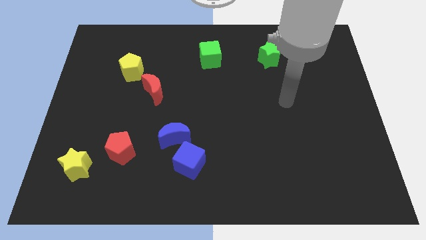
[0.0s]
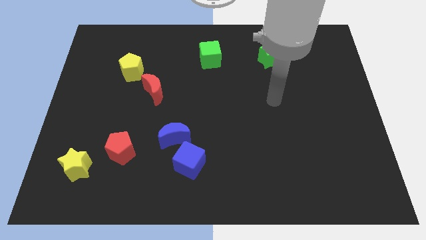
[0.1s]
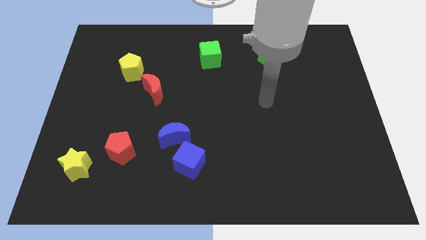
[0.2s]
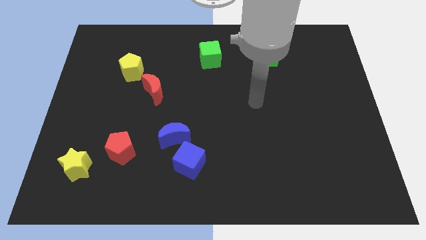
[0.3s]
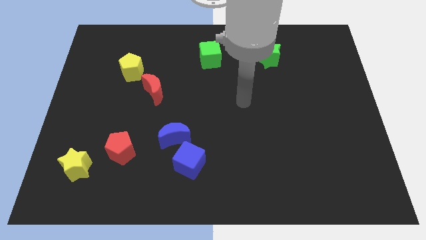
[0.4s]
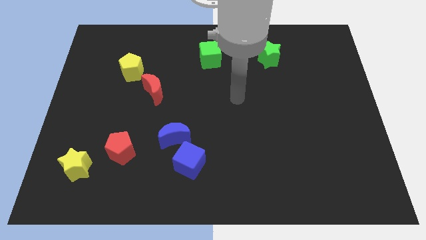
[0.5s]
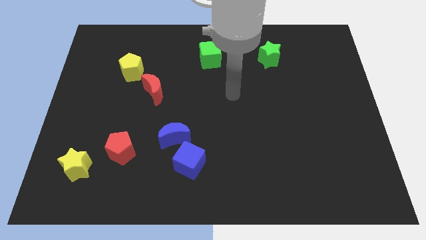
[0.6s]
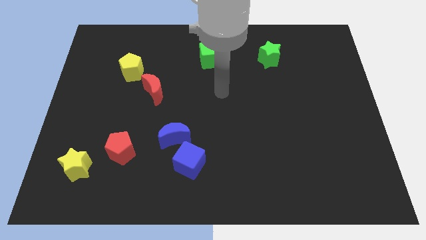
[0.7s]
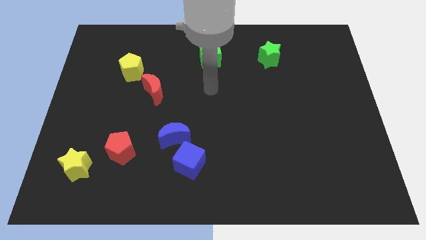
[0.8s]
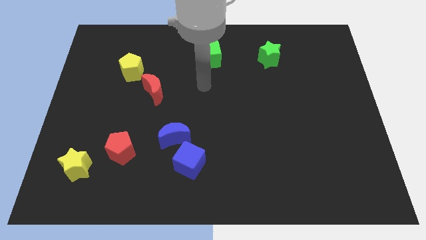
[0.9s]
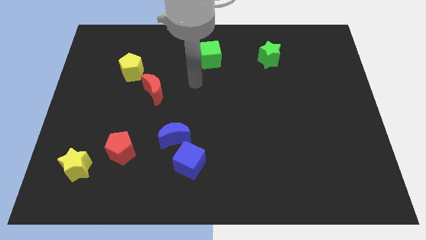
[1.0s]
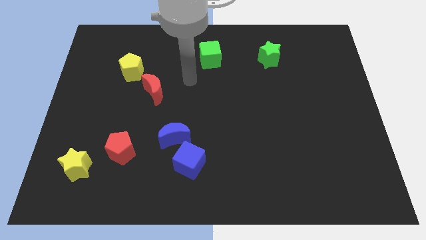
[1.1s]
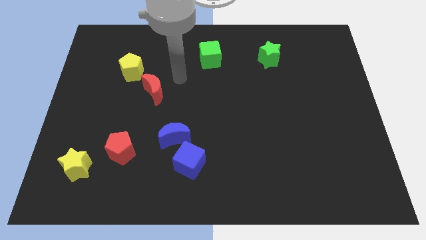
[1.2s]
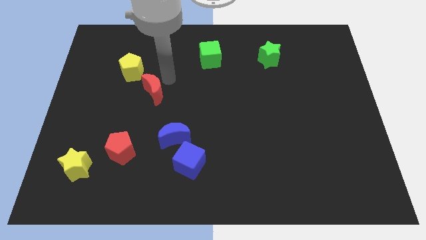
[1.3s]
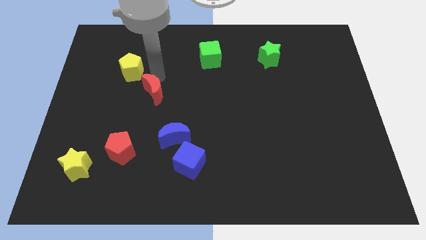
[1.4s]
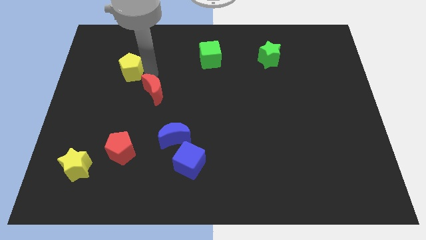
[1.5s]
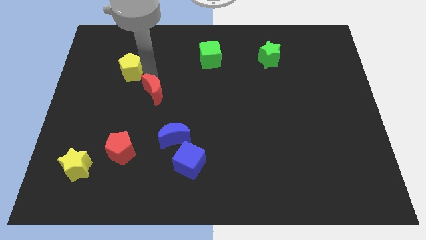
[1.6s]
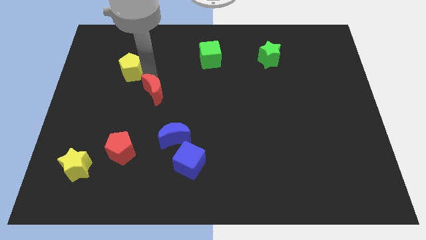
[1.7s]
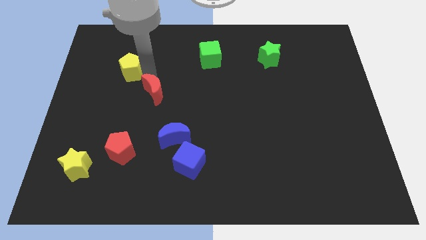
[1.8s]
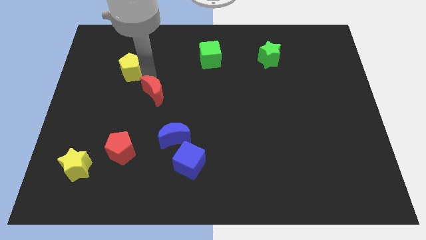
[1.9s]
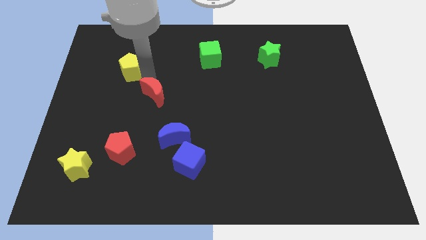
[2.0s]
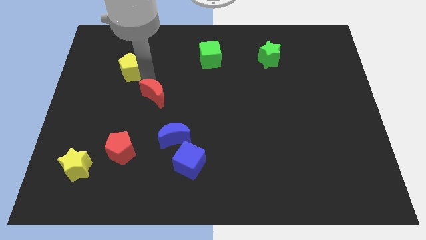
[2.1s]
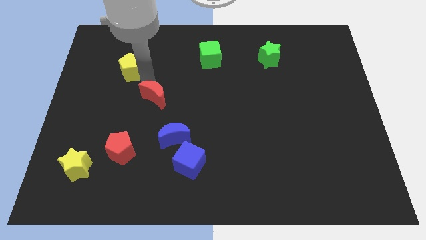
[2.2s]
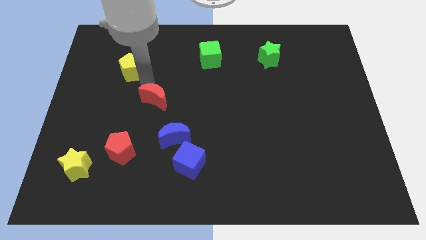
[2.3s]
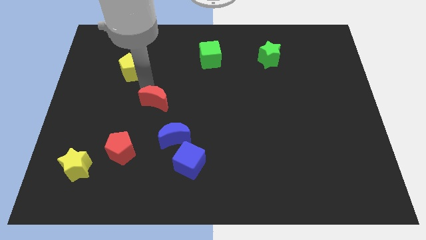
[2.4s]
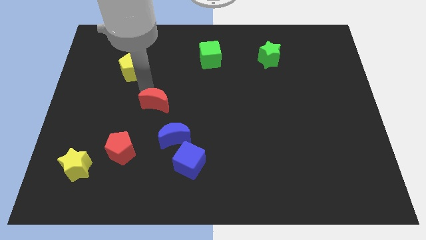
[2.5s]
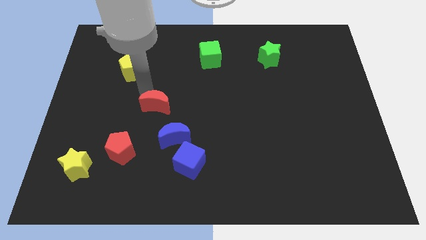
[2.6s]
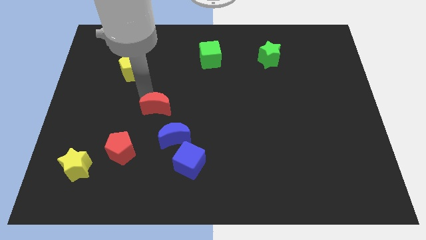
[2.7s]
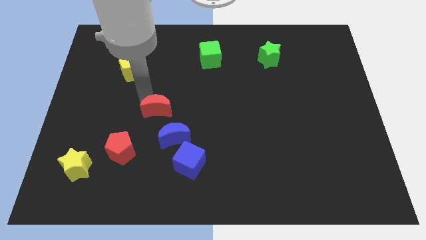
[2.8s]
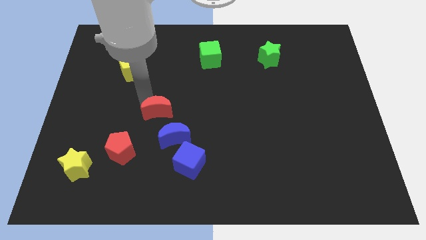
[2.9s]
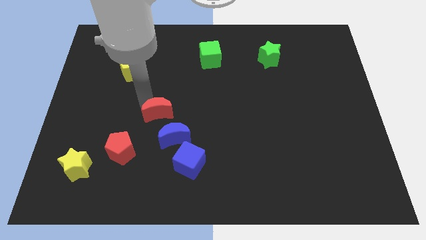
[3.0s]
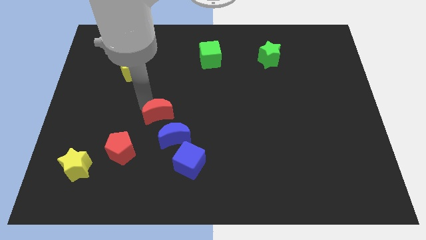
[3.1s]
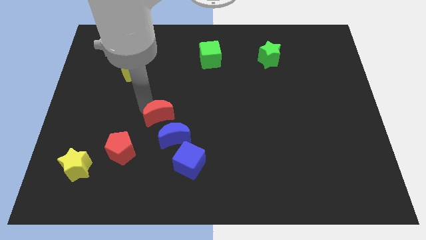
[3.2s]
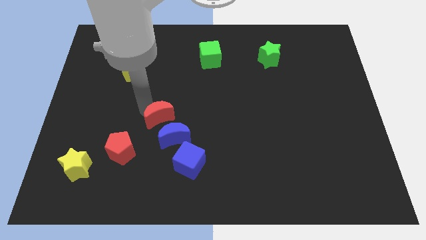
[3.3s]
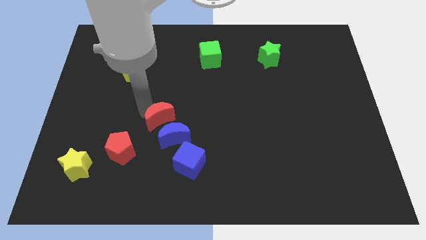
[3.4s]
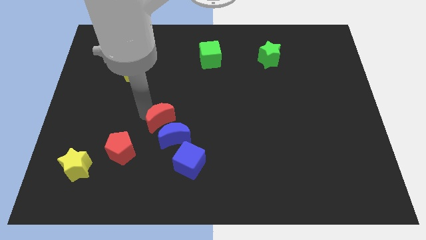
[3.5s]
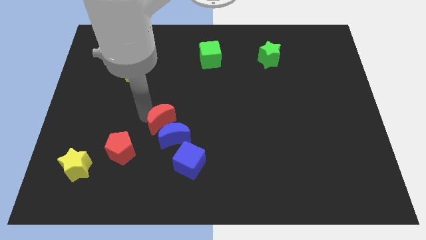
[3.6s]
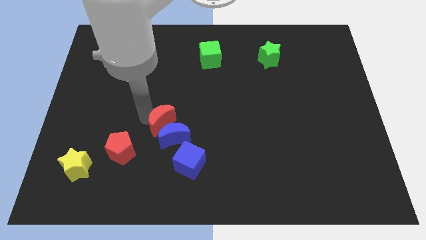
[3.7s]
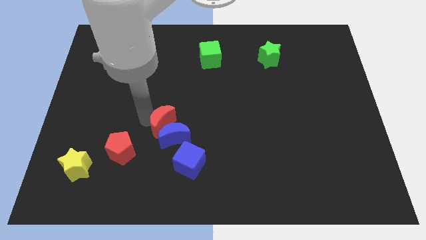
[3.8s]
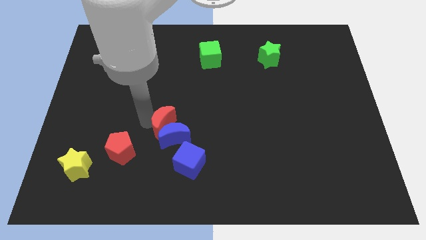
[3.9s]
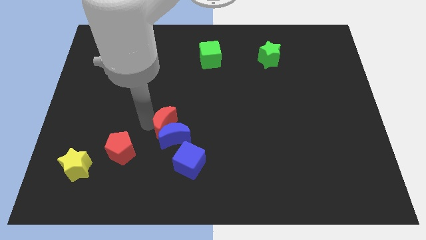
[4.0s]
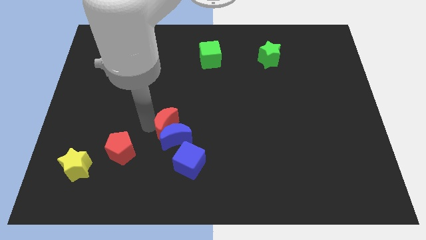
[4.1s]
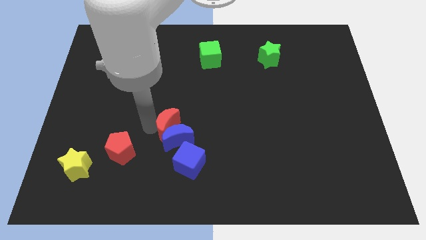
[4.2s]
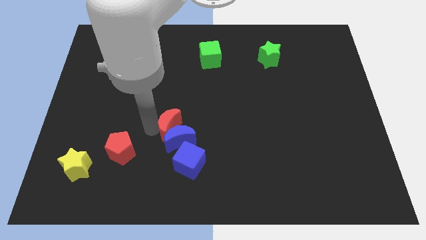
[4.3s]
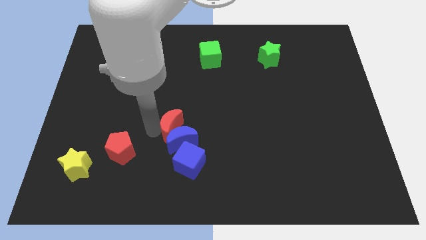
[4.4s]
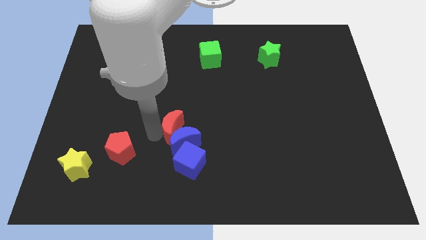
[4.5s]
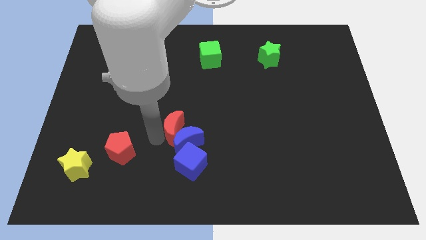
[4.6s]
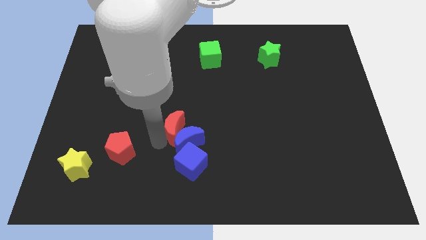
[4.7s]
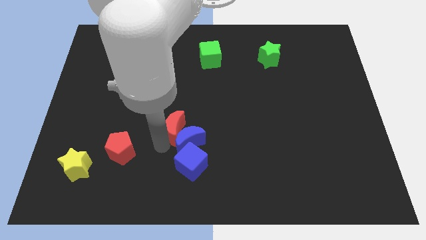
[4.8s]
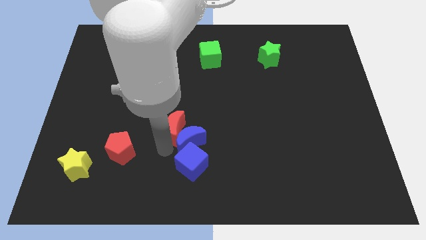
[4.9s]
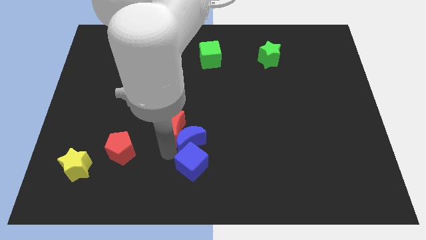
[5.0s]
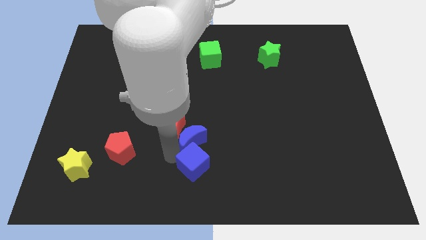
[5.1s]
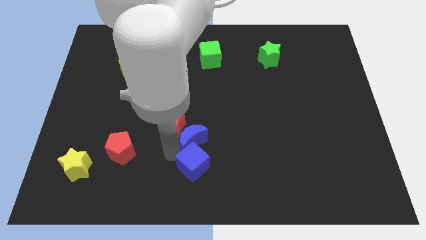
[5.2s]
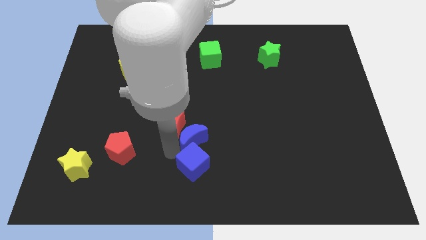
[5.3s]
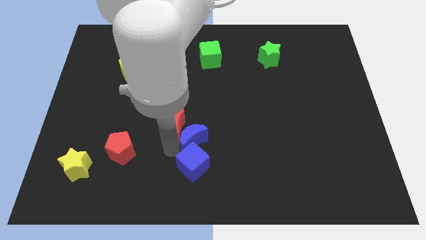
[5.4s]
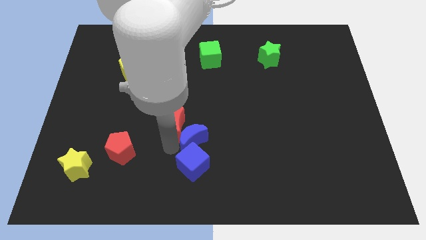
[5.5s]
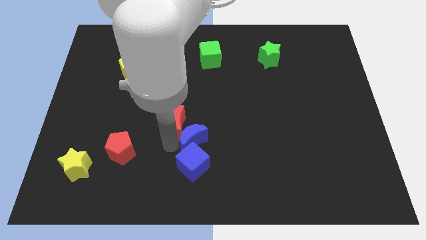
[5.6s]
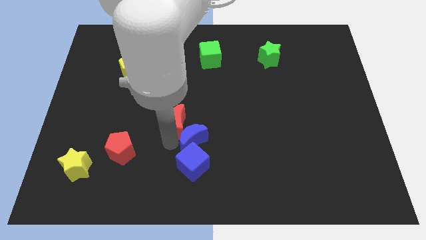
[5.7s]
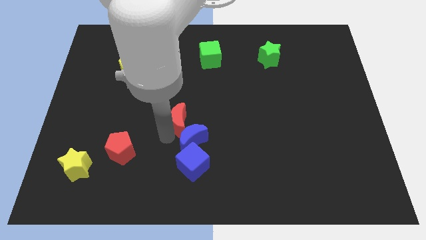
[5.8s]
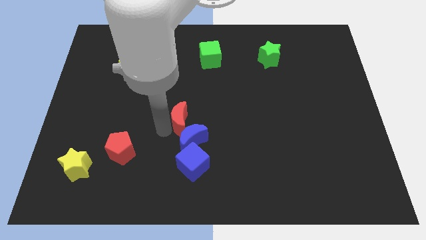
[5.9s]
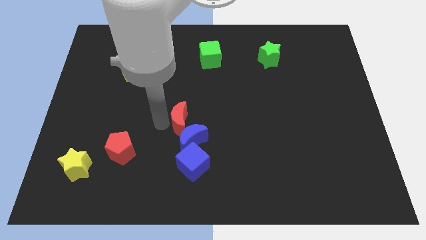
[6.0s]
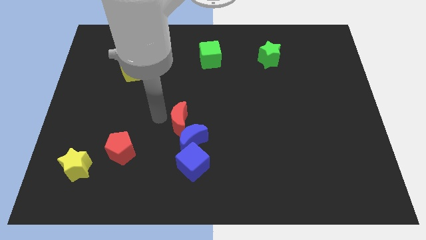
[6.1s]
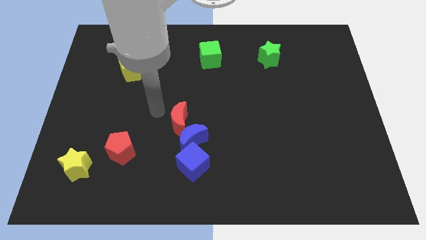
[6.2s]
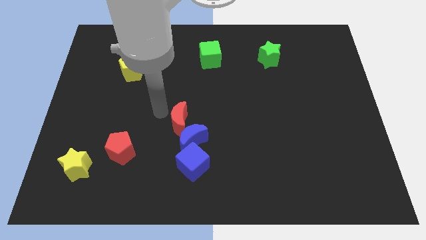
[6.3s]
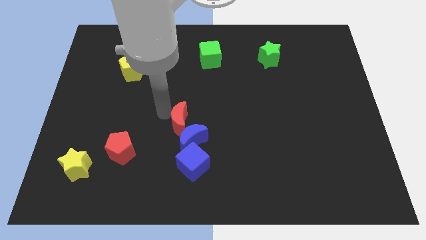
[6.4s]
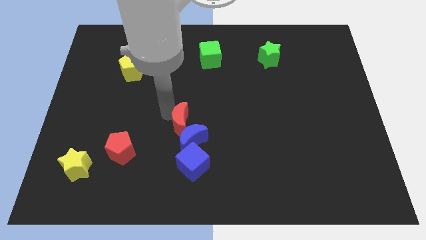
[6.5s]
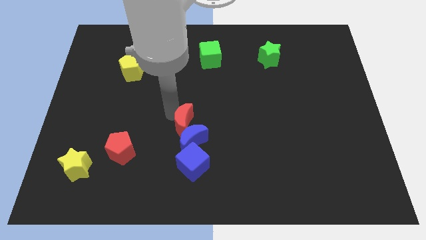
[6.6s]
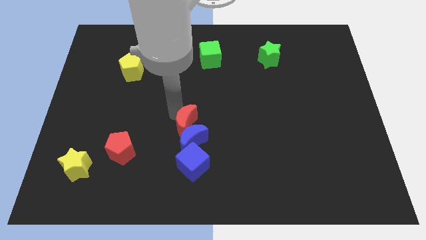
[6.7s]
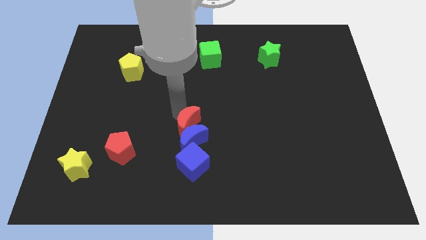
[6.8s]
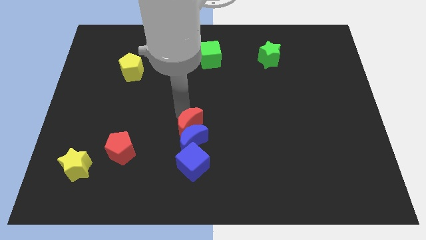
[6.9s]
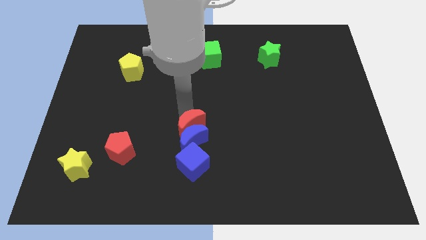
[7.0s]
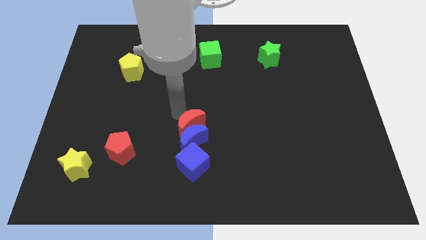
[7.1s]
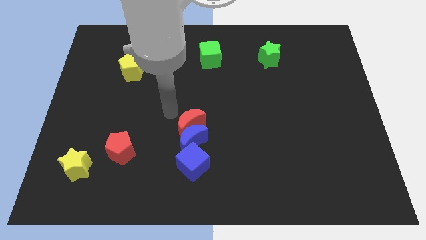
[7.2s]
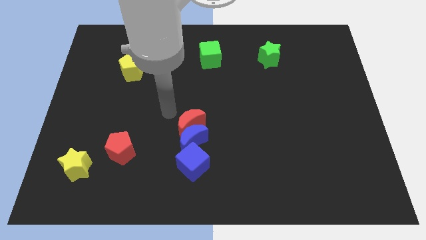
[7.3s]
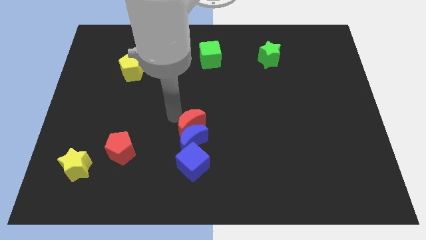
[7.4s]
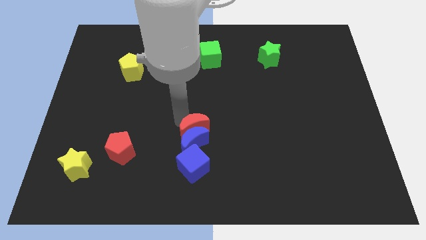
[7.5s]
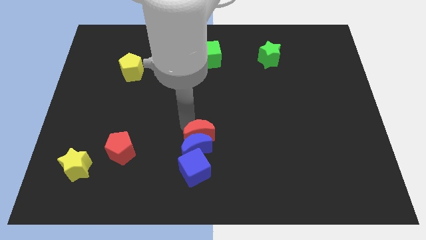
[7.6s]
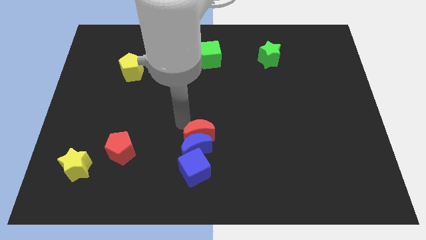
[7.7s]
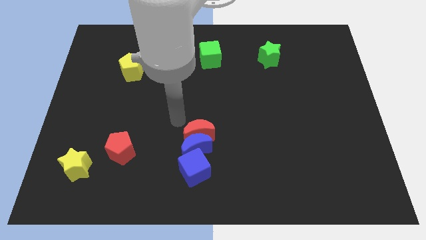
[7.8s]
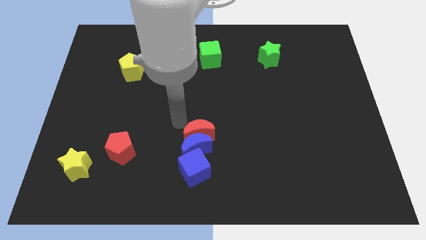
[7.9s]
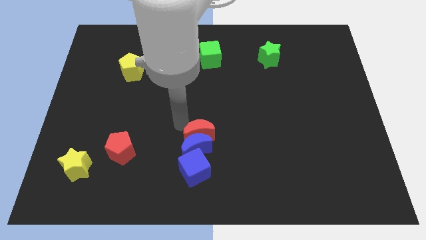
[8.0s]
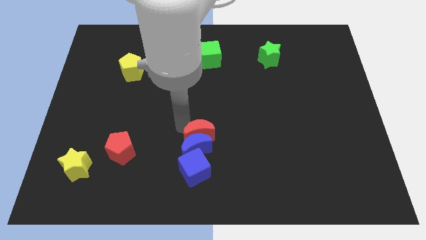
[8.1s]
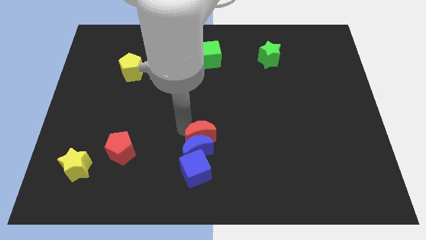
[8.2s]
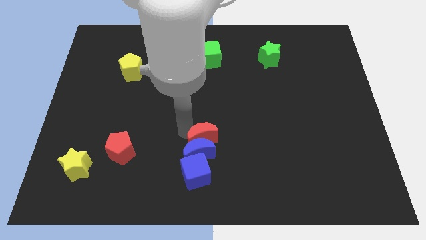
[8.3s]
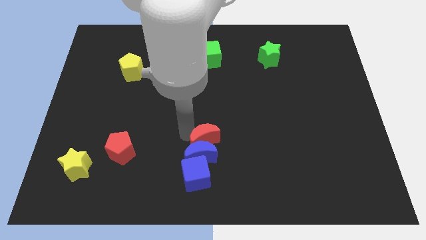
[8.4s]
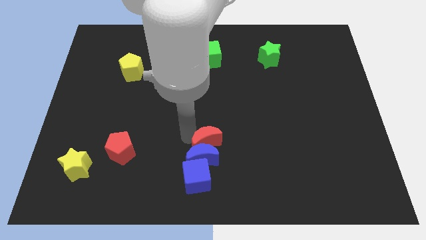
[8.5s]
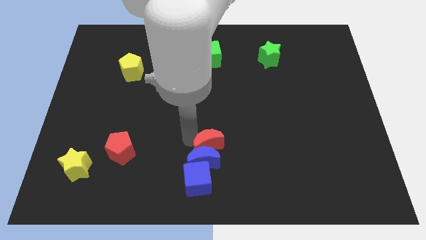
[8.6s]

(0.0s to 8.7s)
move the red moon diagonally up and to the right of the blue cube
